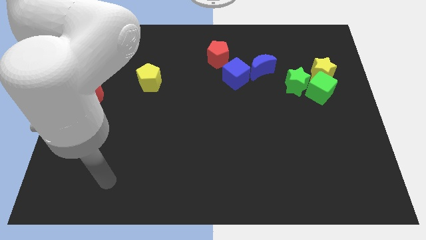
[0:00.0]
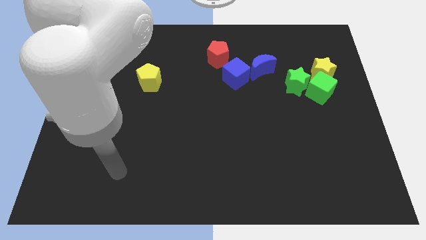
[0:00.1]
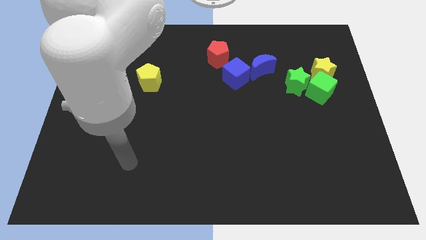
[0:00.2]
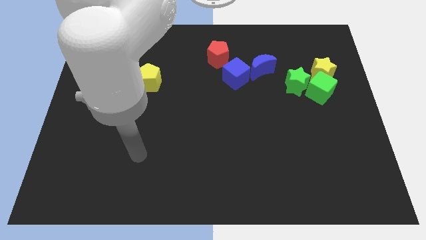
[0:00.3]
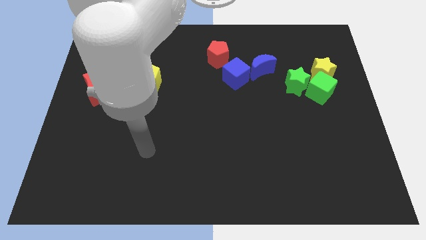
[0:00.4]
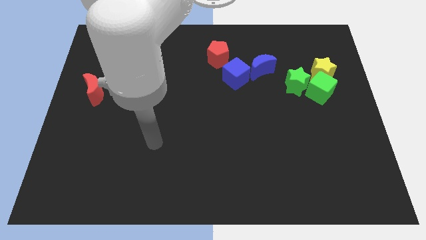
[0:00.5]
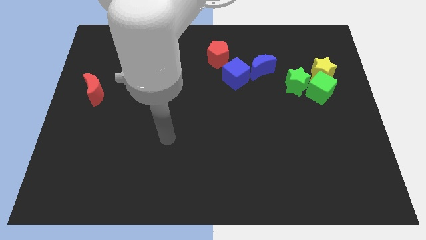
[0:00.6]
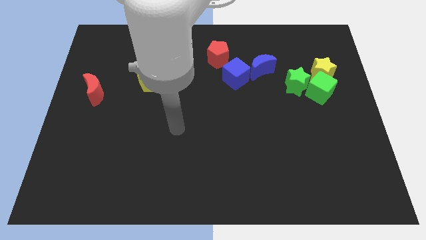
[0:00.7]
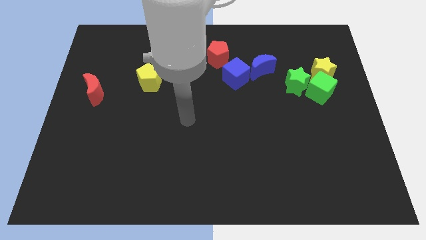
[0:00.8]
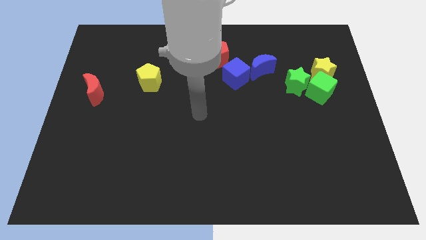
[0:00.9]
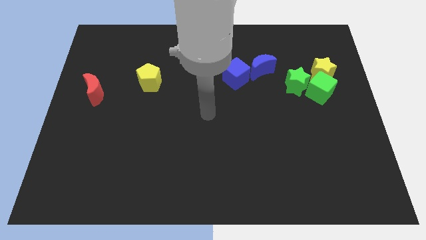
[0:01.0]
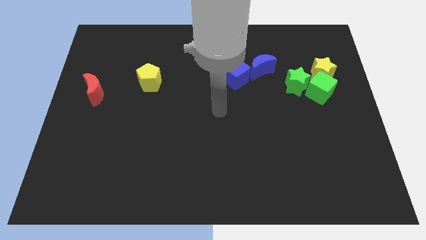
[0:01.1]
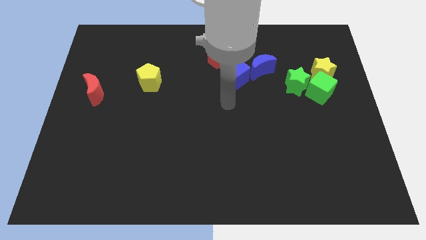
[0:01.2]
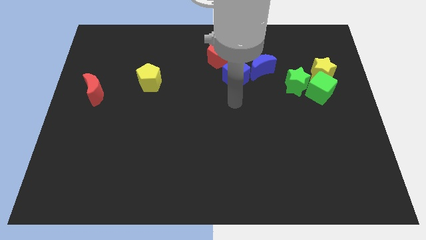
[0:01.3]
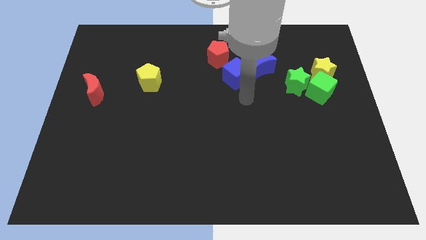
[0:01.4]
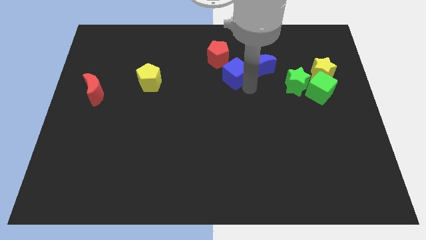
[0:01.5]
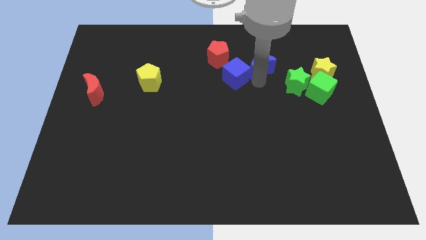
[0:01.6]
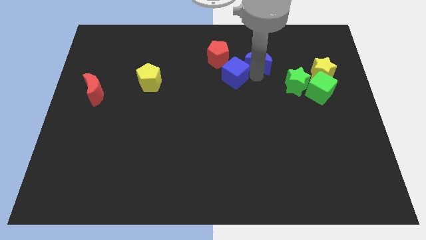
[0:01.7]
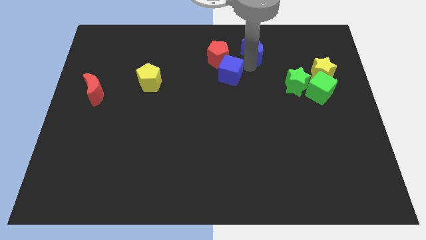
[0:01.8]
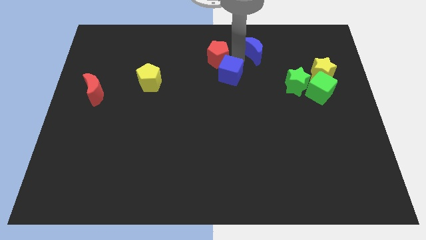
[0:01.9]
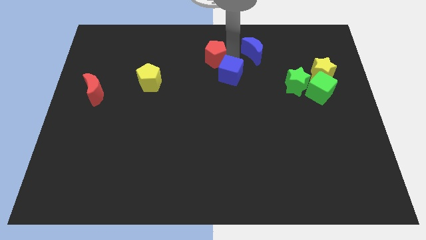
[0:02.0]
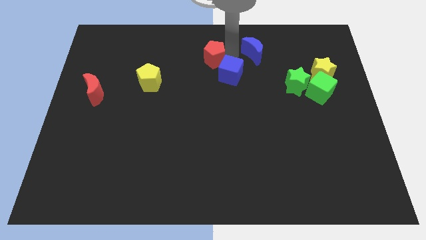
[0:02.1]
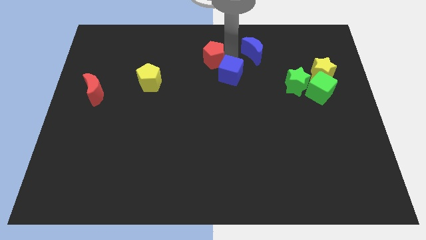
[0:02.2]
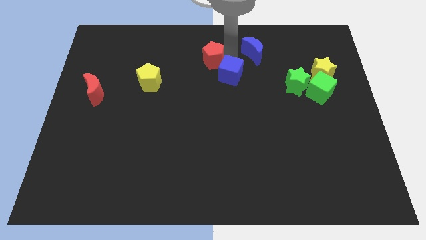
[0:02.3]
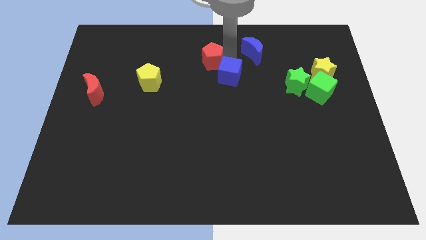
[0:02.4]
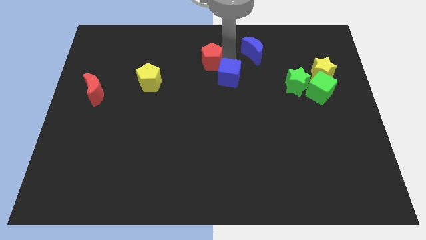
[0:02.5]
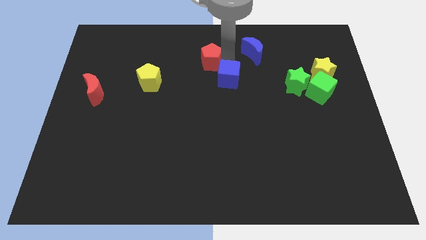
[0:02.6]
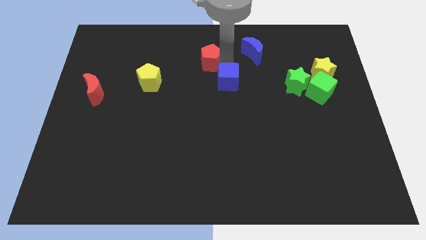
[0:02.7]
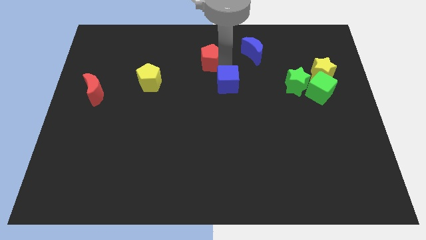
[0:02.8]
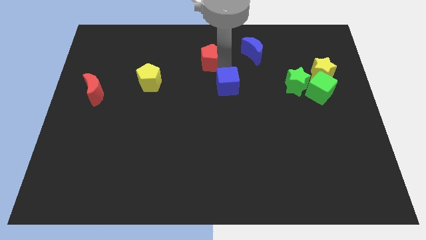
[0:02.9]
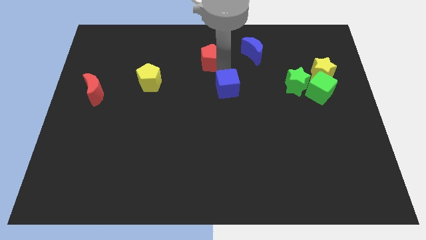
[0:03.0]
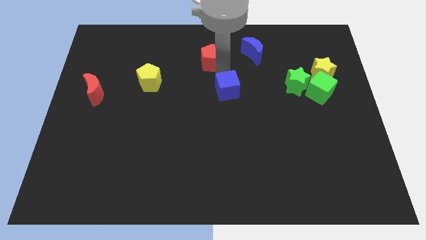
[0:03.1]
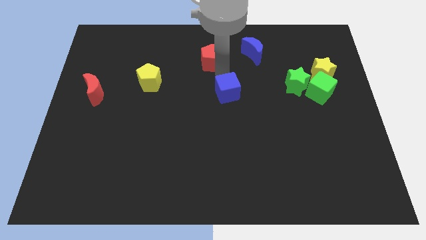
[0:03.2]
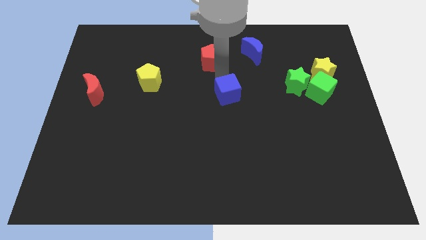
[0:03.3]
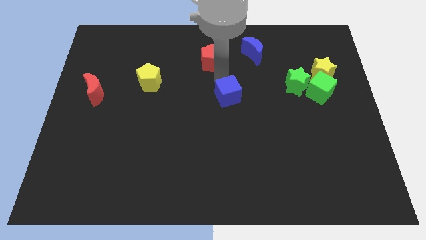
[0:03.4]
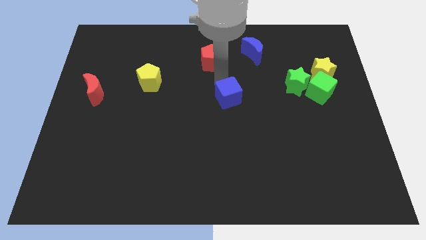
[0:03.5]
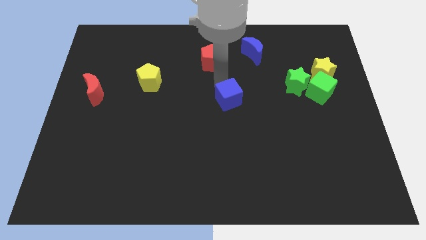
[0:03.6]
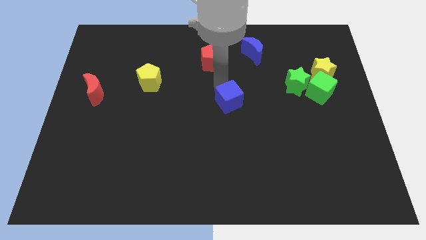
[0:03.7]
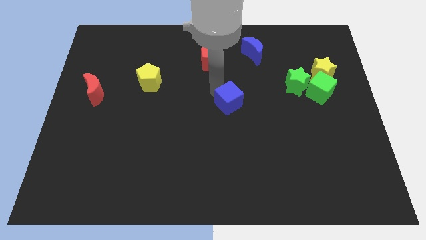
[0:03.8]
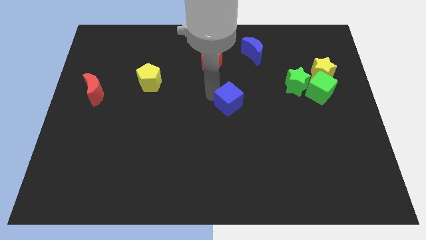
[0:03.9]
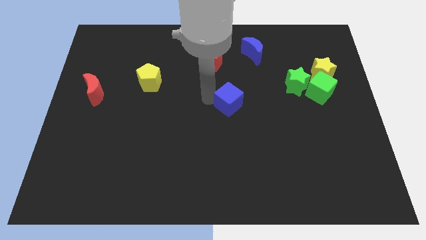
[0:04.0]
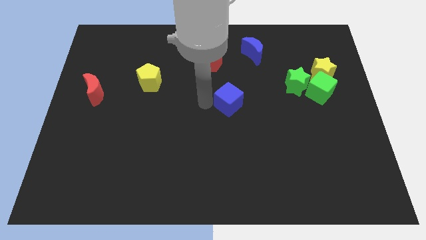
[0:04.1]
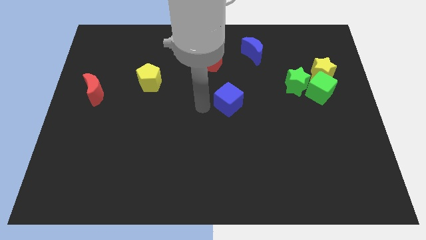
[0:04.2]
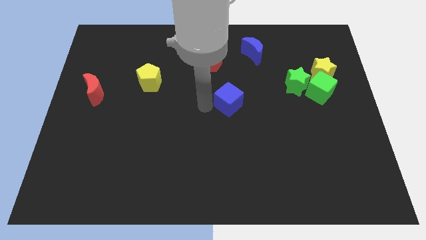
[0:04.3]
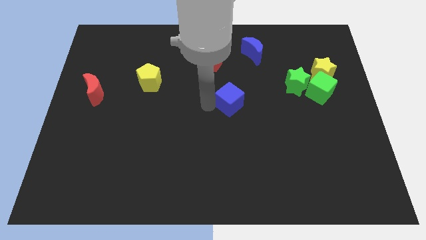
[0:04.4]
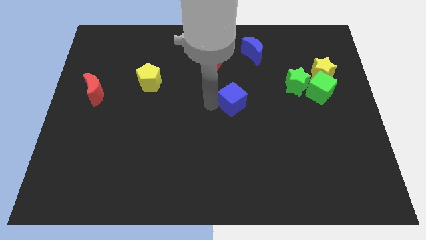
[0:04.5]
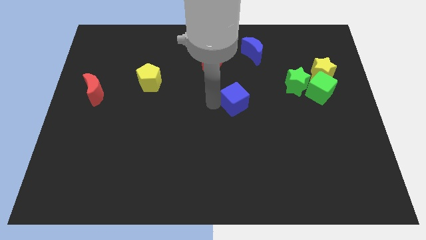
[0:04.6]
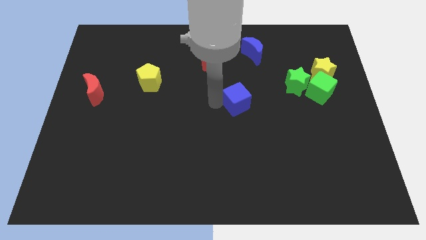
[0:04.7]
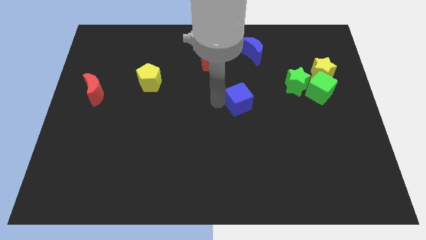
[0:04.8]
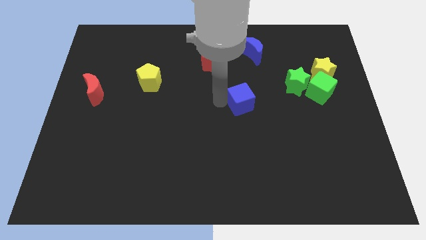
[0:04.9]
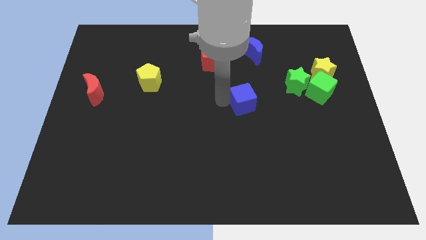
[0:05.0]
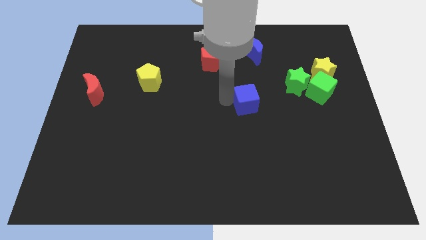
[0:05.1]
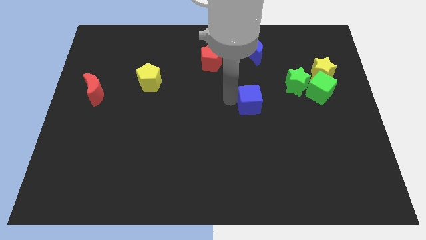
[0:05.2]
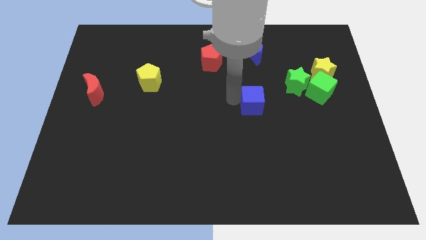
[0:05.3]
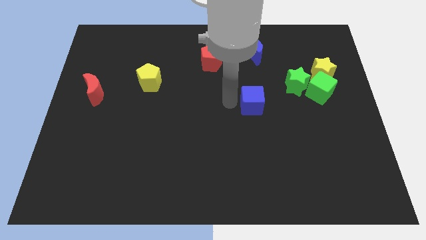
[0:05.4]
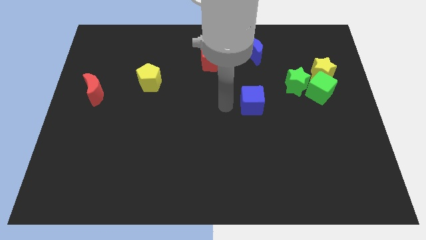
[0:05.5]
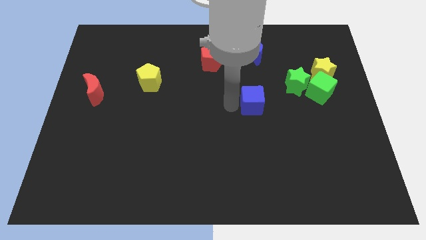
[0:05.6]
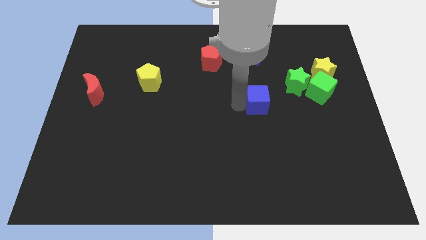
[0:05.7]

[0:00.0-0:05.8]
move the blue cube to the bottom left of the green star

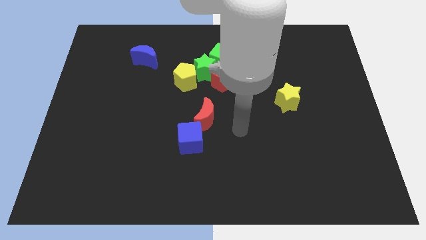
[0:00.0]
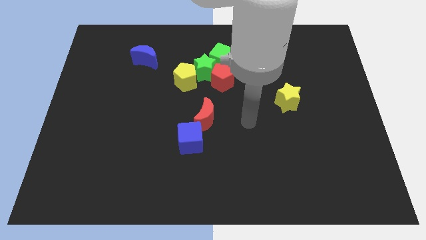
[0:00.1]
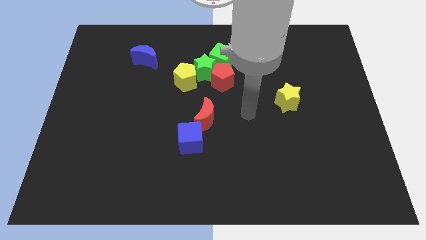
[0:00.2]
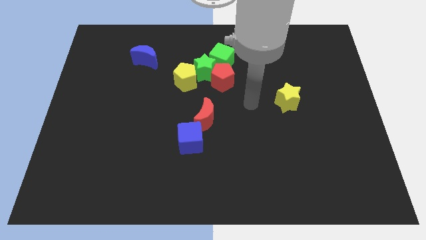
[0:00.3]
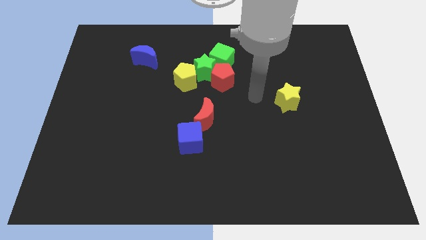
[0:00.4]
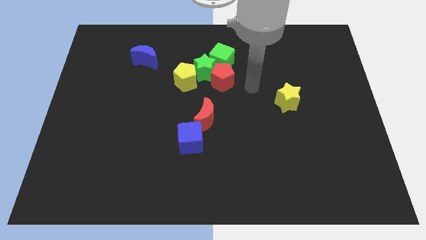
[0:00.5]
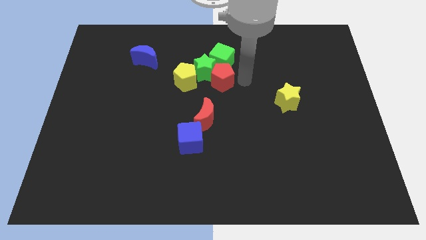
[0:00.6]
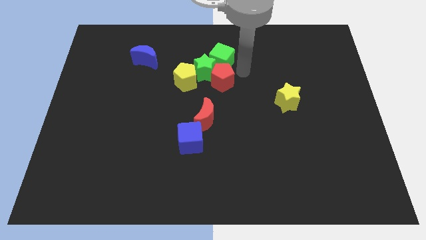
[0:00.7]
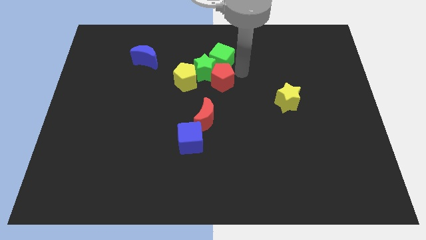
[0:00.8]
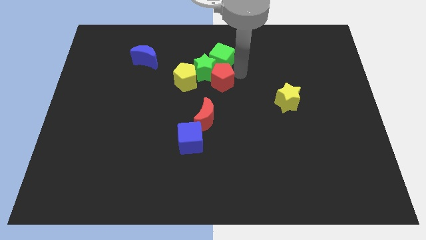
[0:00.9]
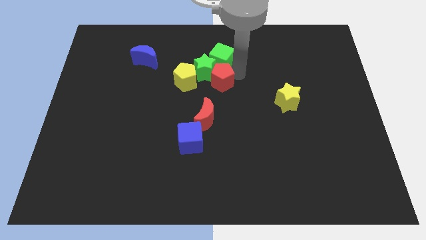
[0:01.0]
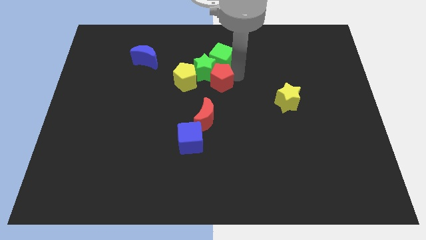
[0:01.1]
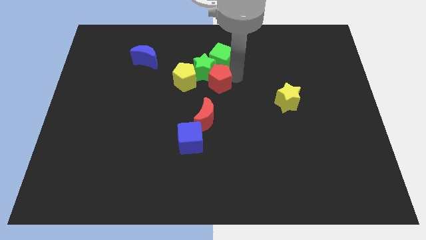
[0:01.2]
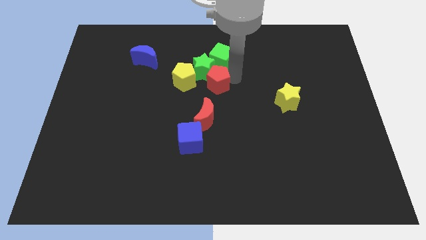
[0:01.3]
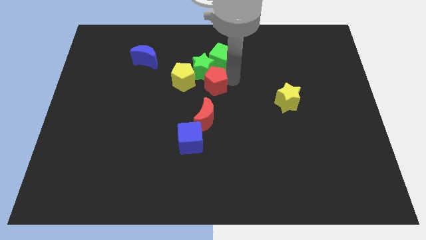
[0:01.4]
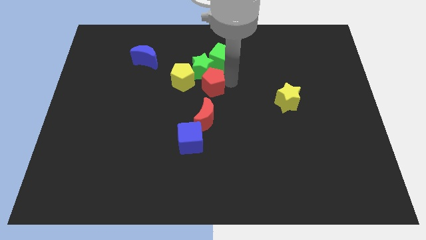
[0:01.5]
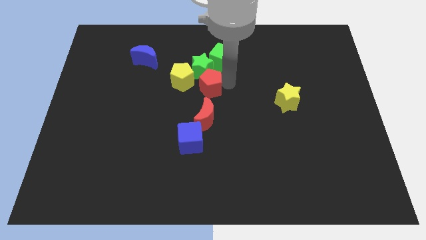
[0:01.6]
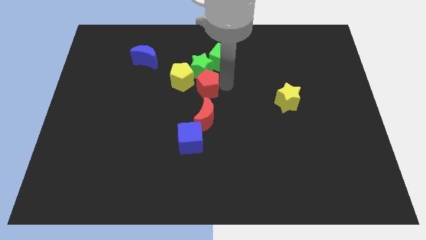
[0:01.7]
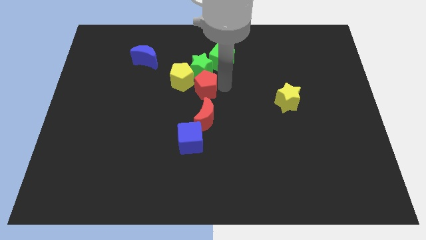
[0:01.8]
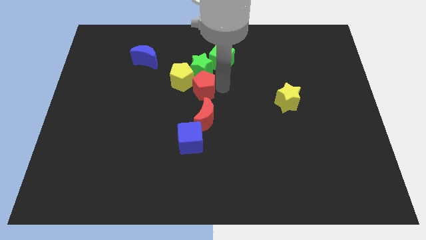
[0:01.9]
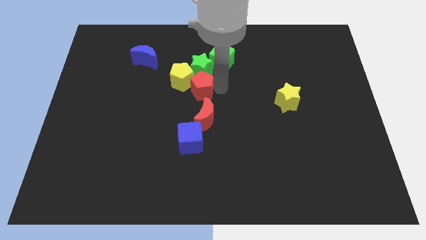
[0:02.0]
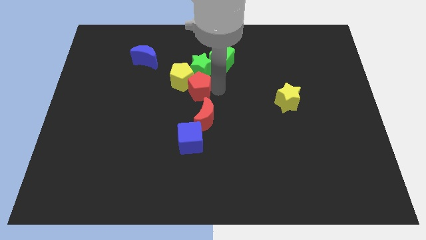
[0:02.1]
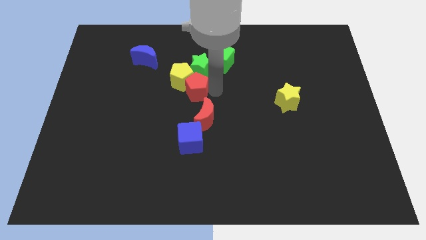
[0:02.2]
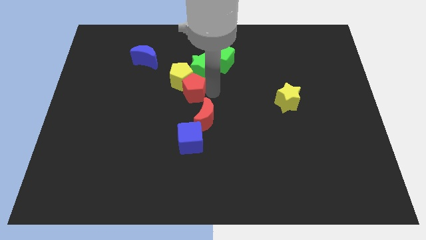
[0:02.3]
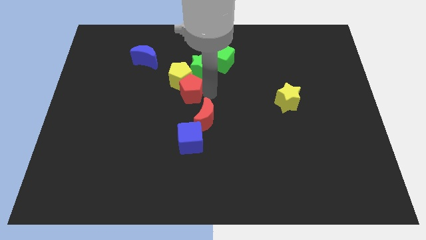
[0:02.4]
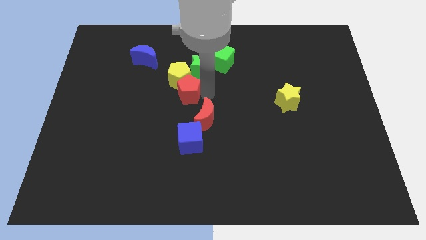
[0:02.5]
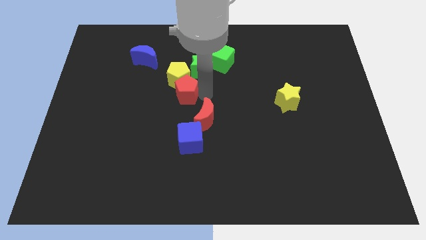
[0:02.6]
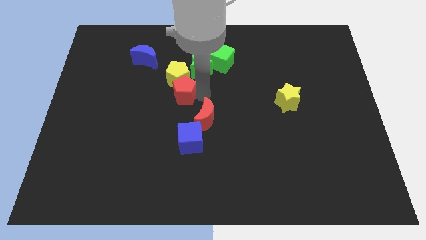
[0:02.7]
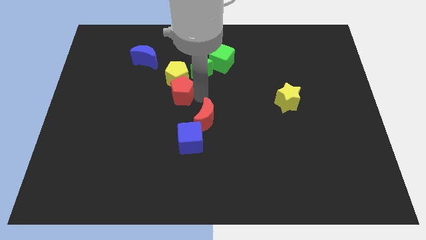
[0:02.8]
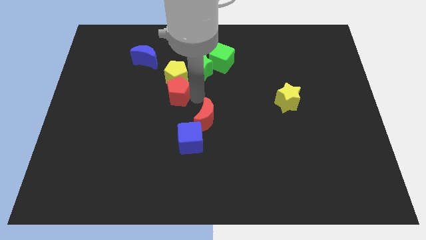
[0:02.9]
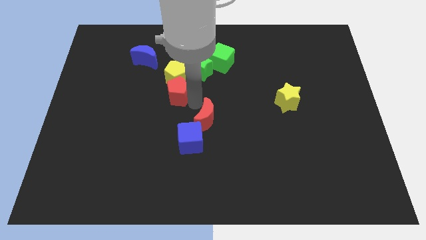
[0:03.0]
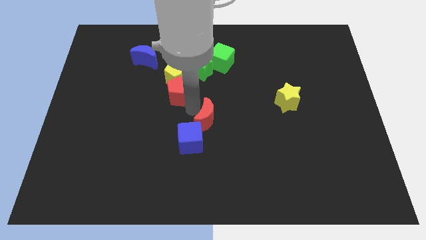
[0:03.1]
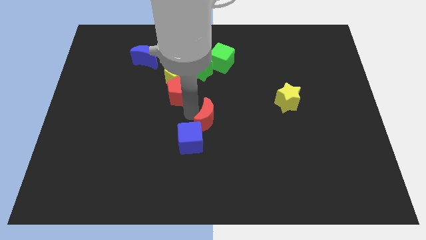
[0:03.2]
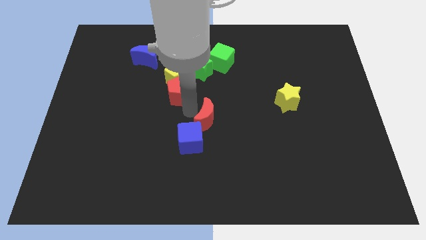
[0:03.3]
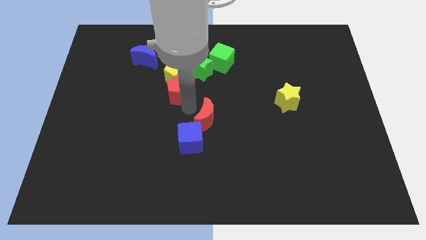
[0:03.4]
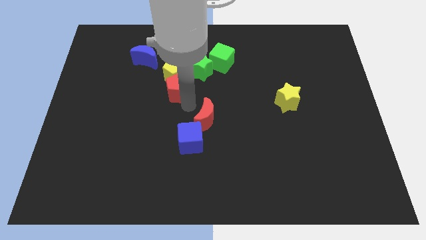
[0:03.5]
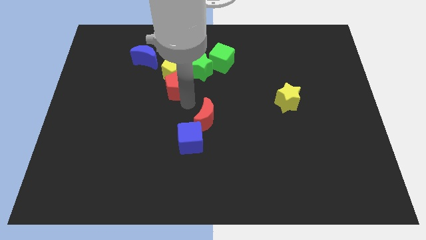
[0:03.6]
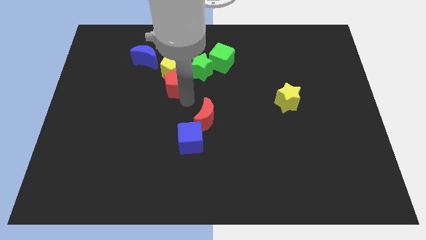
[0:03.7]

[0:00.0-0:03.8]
put the red pentagon to the bottom right side of the blue moon
